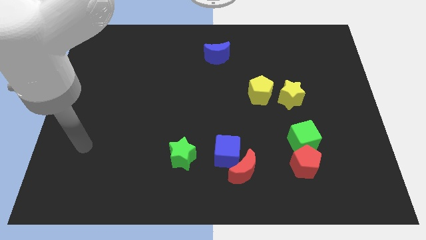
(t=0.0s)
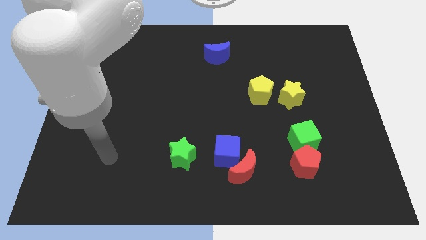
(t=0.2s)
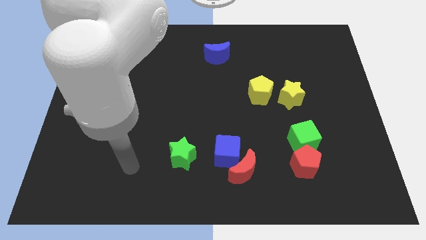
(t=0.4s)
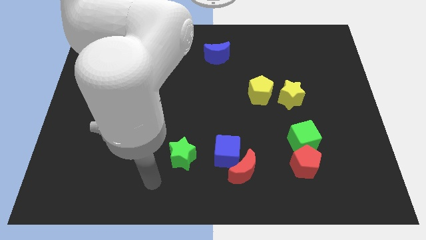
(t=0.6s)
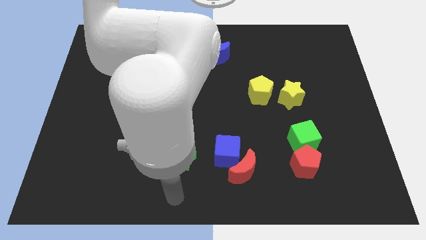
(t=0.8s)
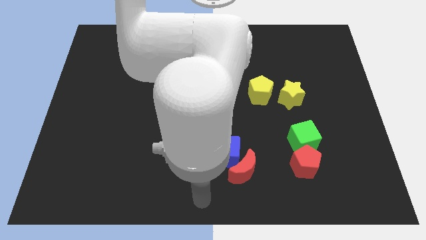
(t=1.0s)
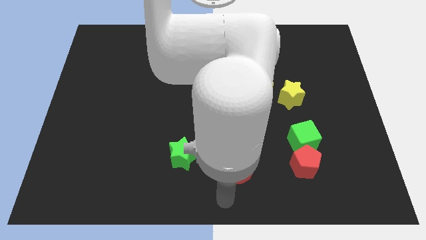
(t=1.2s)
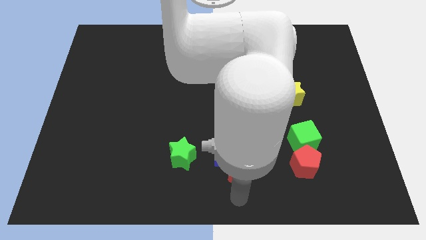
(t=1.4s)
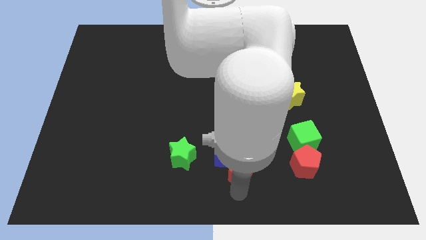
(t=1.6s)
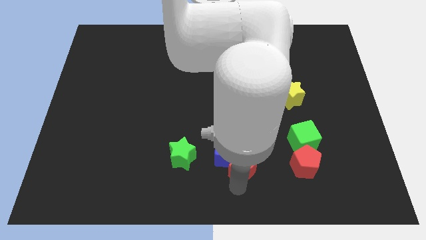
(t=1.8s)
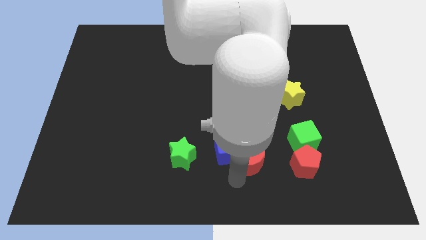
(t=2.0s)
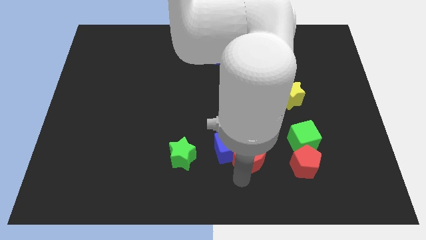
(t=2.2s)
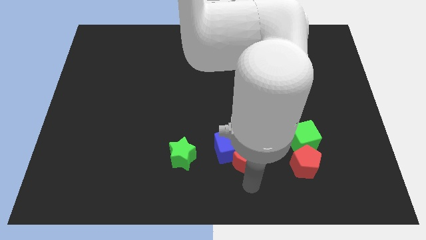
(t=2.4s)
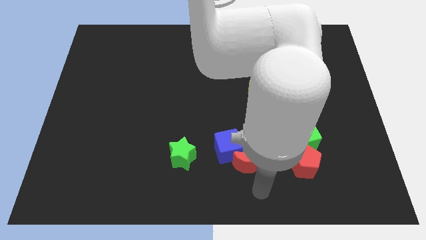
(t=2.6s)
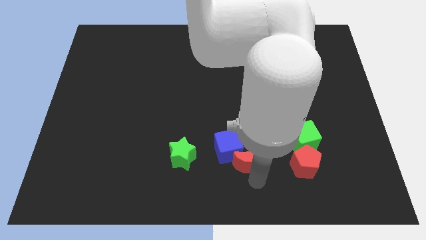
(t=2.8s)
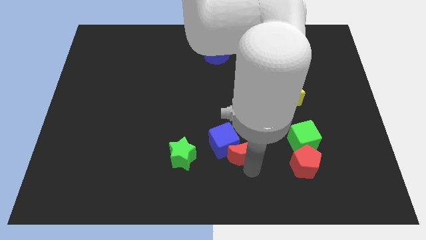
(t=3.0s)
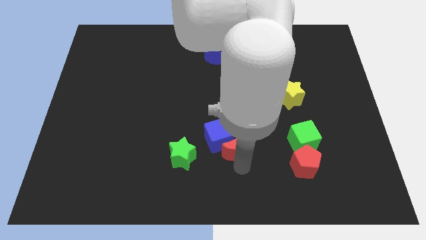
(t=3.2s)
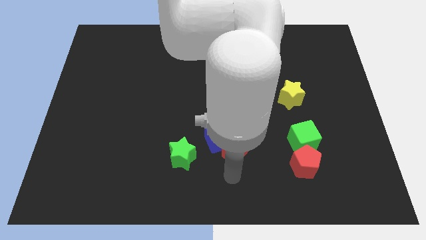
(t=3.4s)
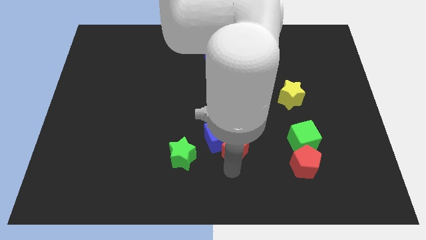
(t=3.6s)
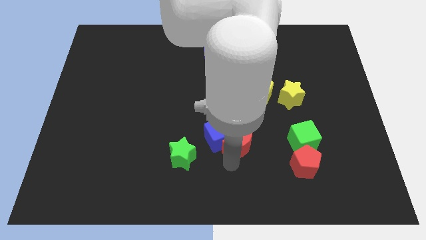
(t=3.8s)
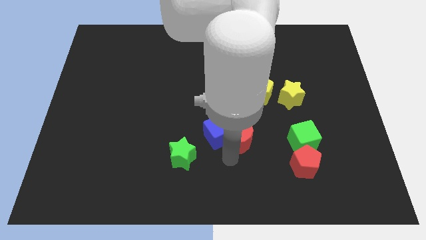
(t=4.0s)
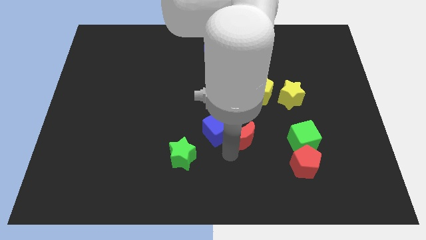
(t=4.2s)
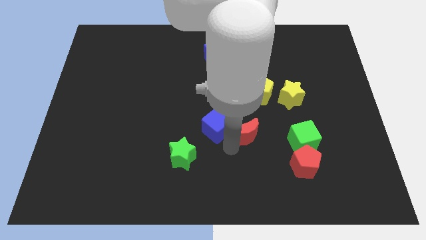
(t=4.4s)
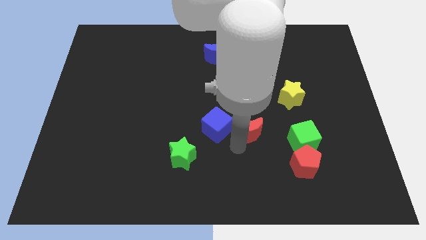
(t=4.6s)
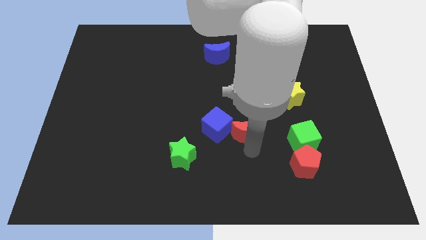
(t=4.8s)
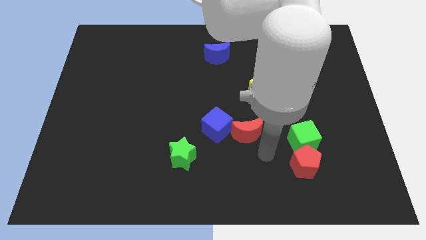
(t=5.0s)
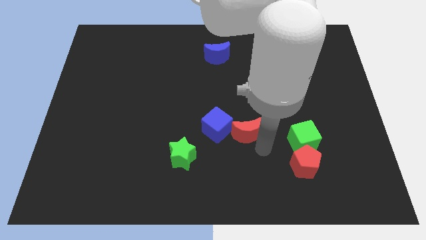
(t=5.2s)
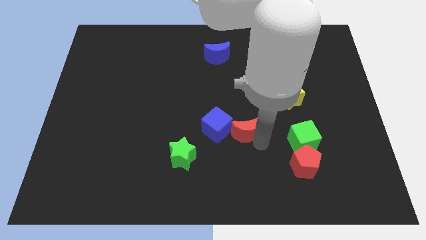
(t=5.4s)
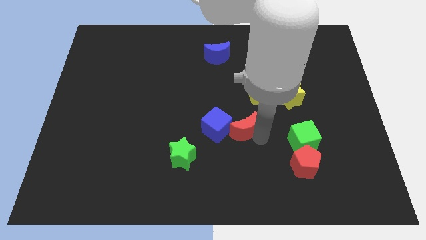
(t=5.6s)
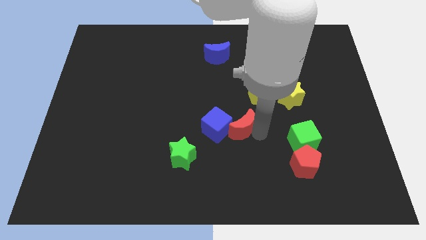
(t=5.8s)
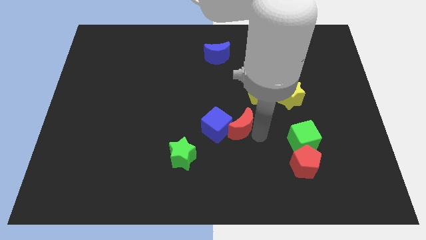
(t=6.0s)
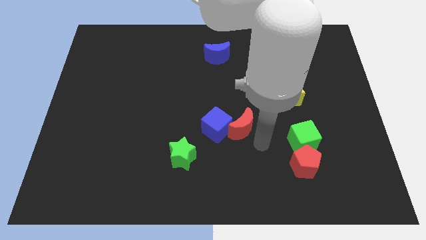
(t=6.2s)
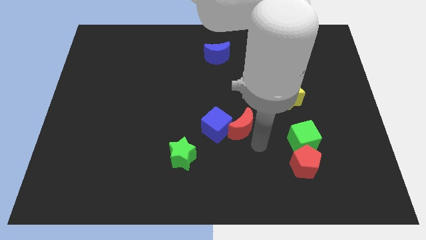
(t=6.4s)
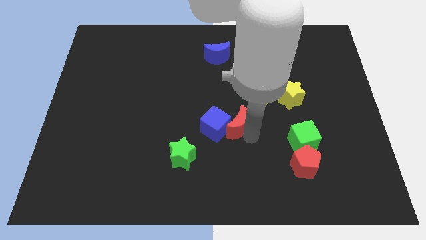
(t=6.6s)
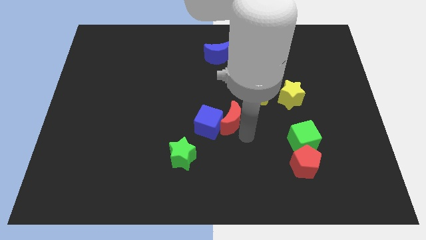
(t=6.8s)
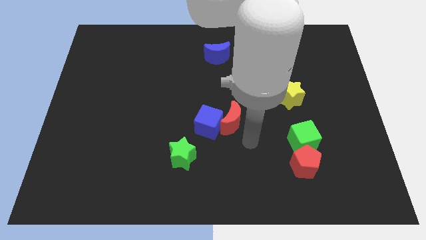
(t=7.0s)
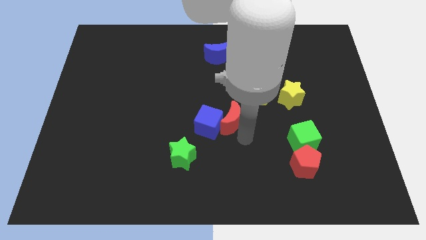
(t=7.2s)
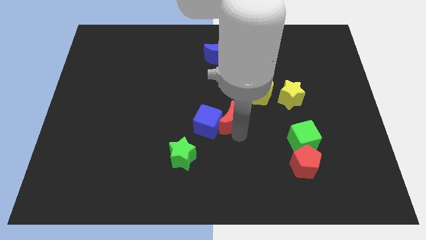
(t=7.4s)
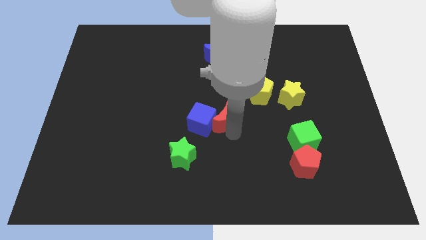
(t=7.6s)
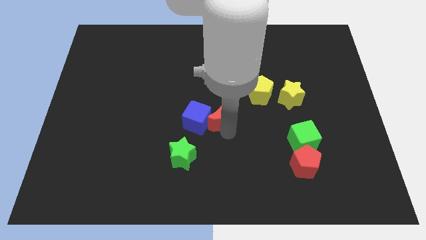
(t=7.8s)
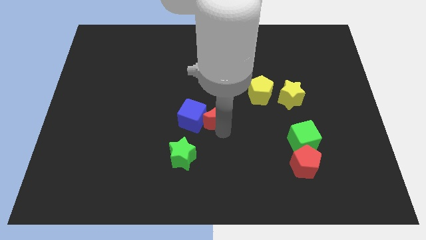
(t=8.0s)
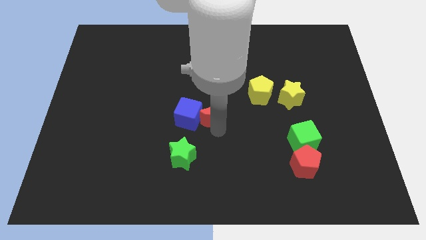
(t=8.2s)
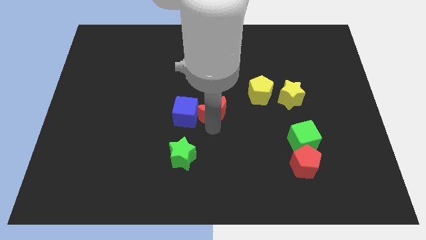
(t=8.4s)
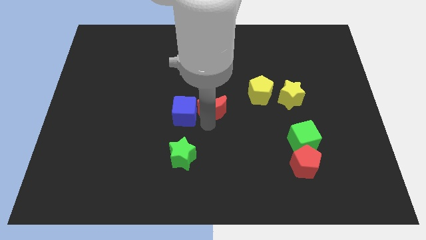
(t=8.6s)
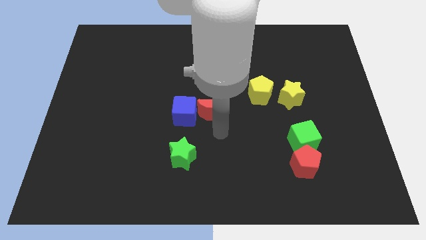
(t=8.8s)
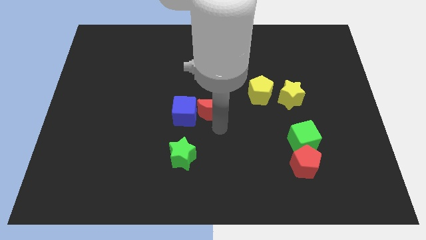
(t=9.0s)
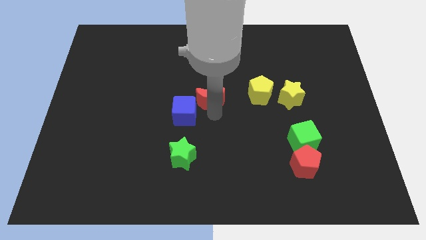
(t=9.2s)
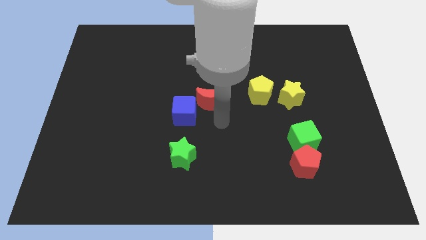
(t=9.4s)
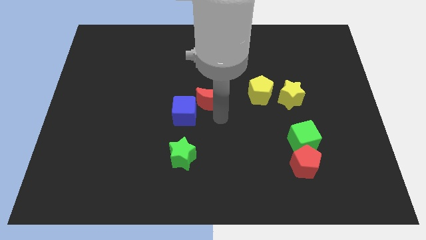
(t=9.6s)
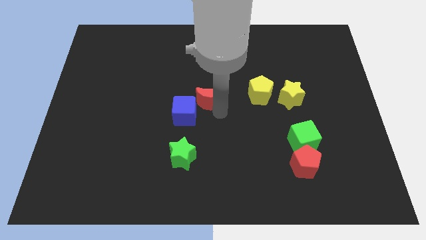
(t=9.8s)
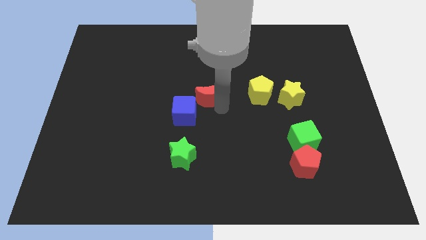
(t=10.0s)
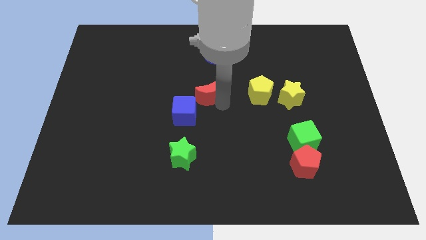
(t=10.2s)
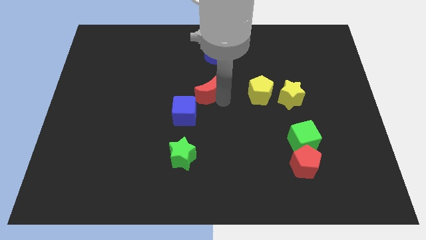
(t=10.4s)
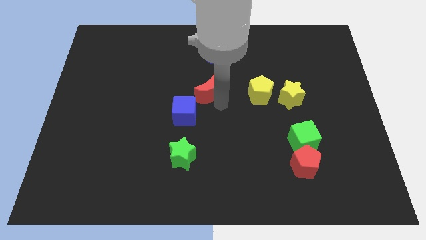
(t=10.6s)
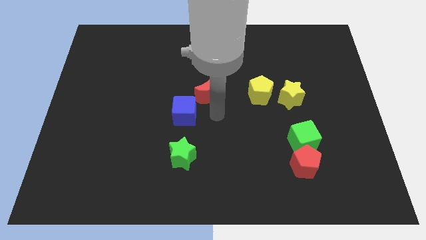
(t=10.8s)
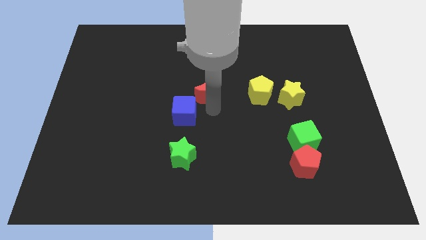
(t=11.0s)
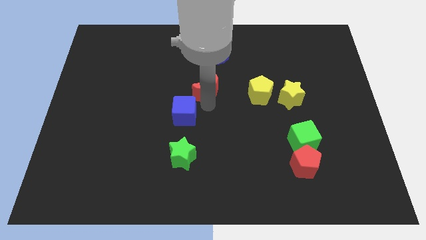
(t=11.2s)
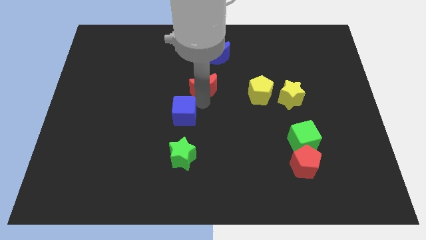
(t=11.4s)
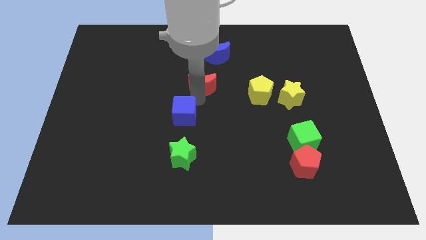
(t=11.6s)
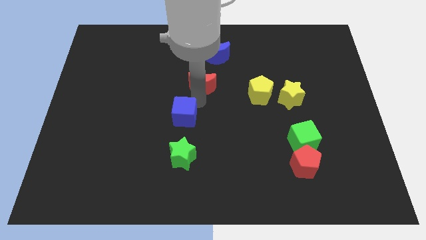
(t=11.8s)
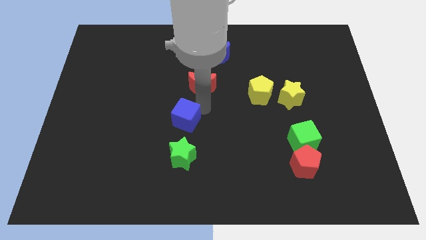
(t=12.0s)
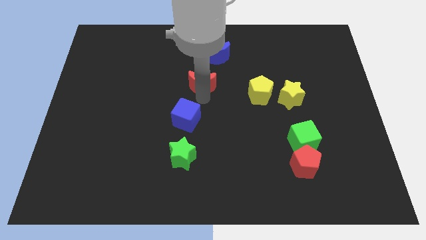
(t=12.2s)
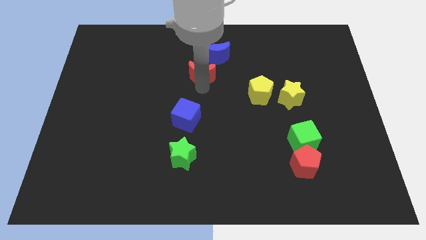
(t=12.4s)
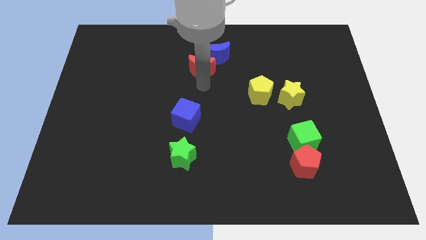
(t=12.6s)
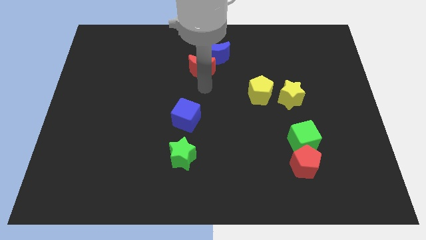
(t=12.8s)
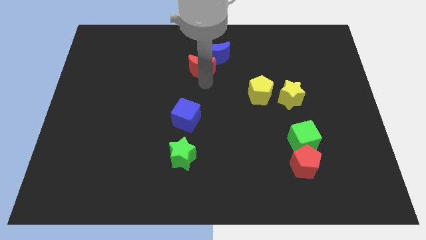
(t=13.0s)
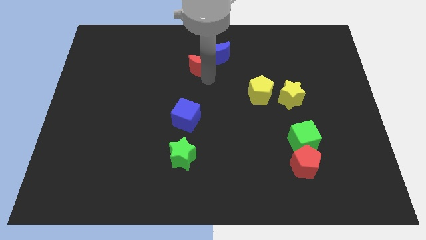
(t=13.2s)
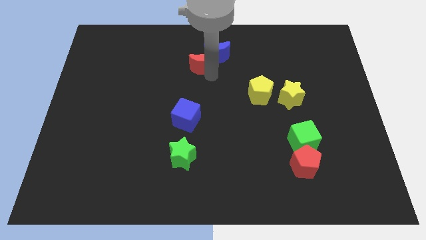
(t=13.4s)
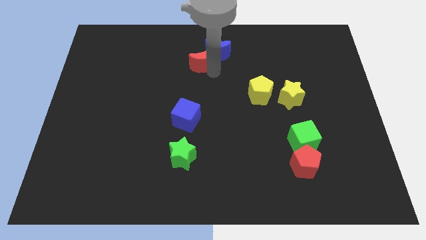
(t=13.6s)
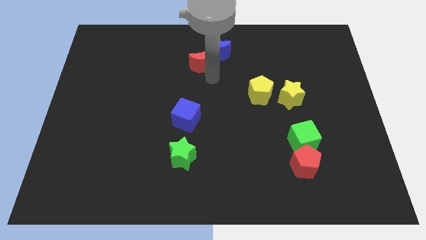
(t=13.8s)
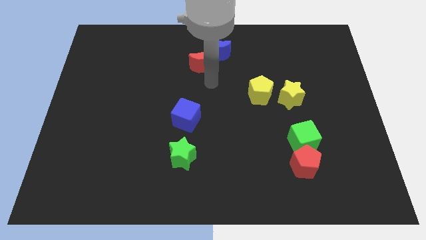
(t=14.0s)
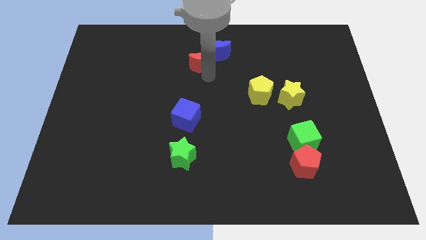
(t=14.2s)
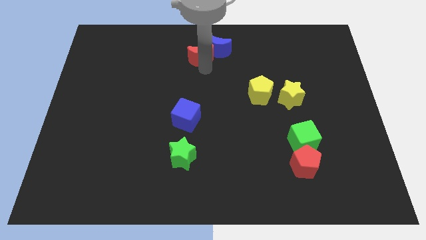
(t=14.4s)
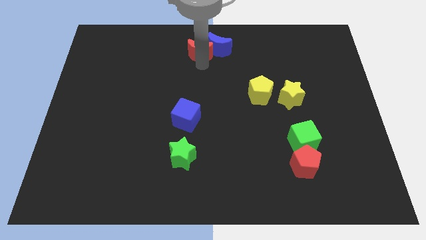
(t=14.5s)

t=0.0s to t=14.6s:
slide the red moon to the towards your base
